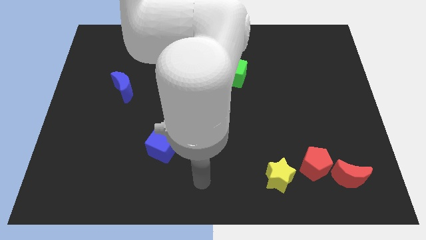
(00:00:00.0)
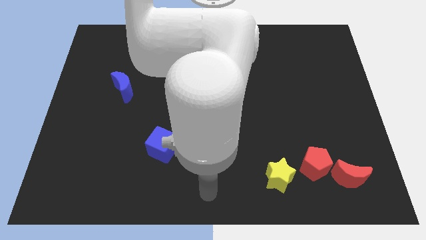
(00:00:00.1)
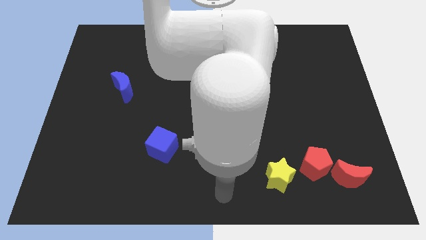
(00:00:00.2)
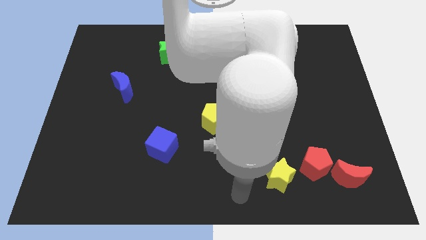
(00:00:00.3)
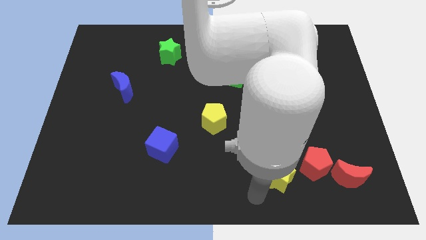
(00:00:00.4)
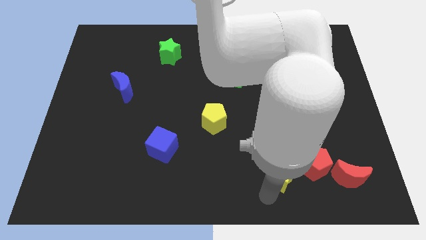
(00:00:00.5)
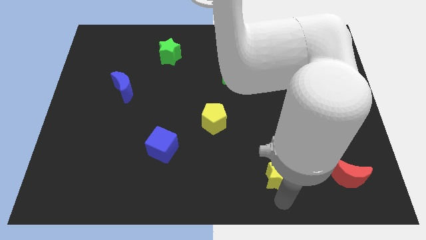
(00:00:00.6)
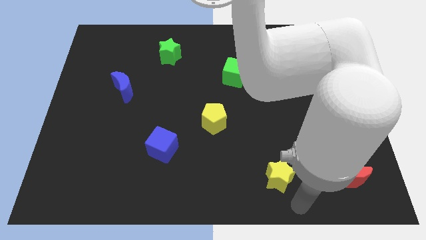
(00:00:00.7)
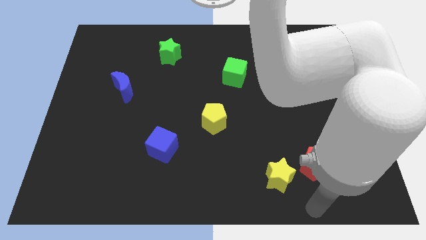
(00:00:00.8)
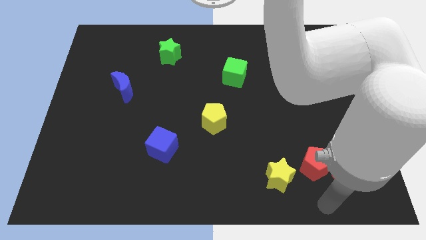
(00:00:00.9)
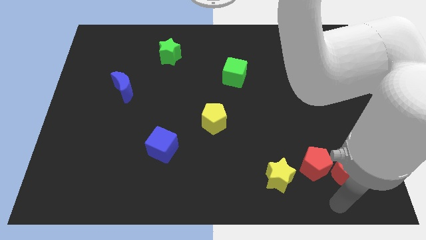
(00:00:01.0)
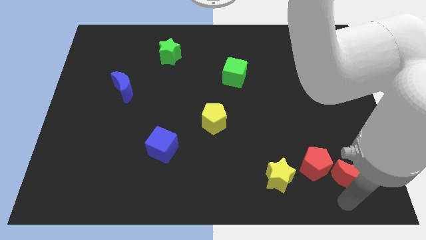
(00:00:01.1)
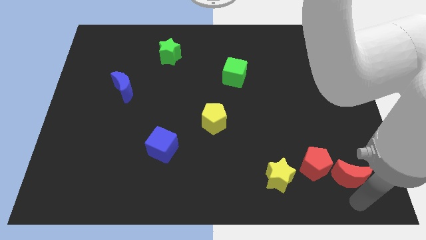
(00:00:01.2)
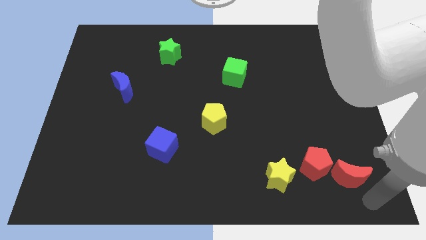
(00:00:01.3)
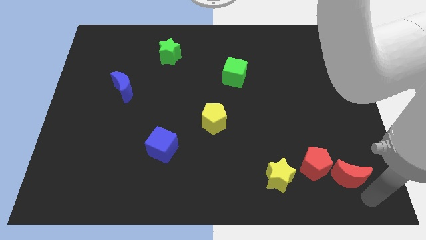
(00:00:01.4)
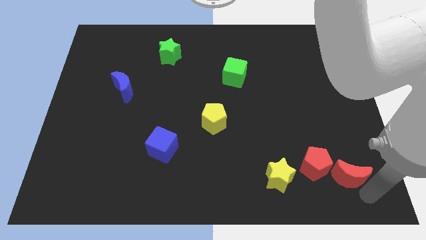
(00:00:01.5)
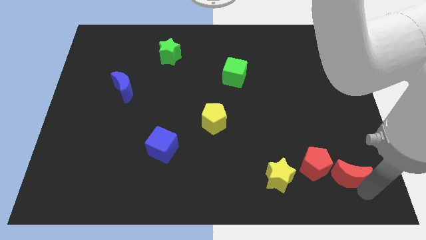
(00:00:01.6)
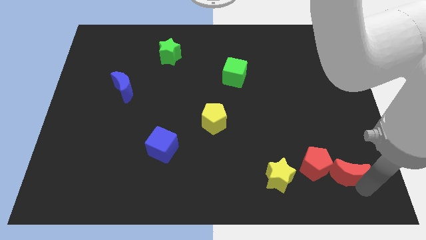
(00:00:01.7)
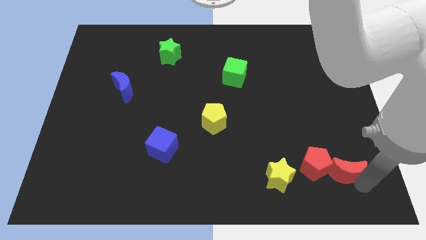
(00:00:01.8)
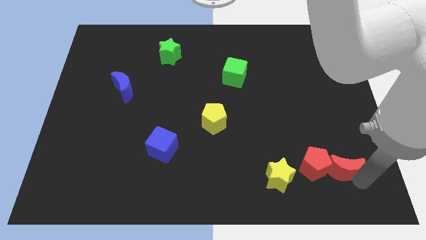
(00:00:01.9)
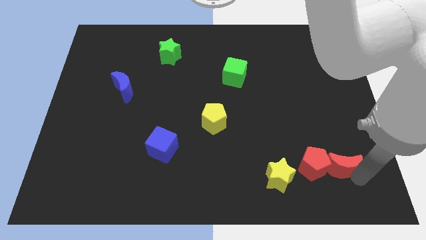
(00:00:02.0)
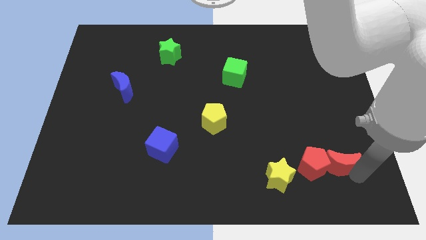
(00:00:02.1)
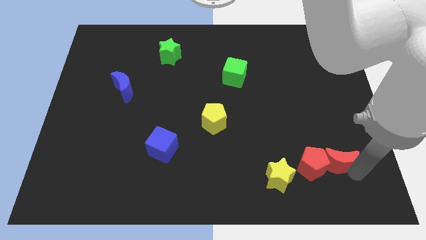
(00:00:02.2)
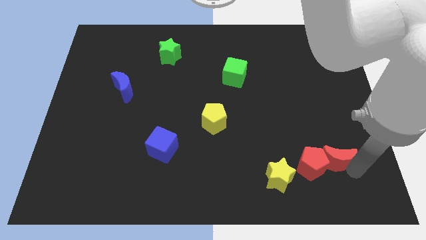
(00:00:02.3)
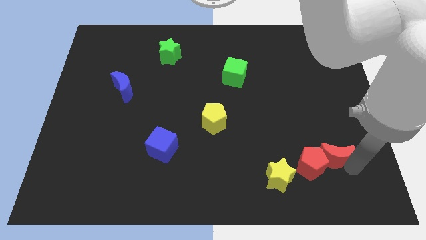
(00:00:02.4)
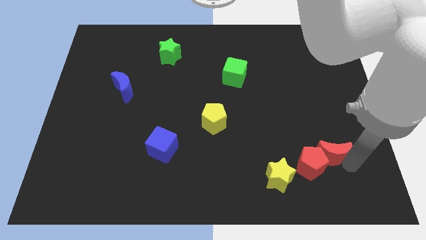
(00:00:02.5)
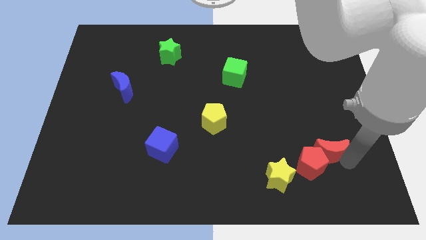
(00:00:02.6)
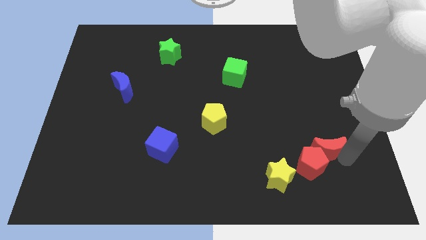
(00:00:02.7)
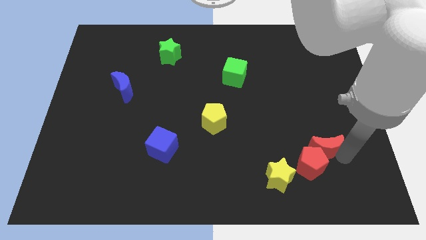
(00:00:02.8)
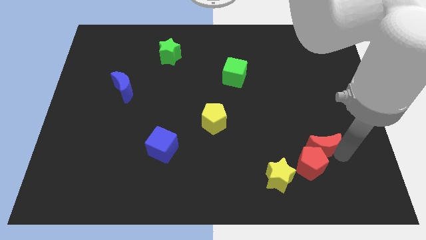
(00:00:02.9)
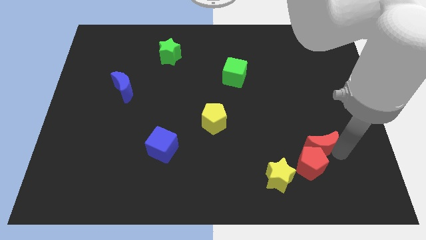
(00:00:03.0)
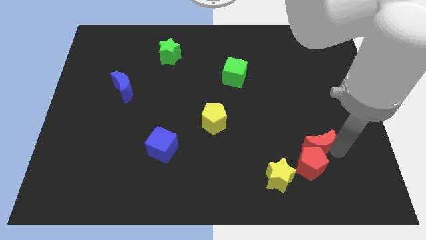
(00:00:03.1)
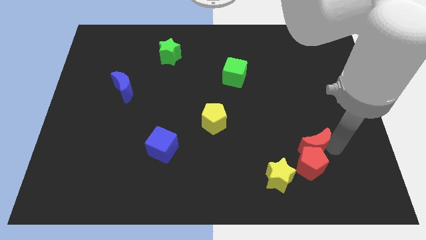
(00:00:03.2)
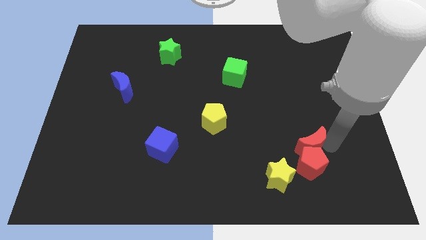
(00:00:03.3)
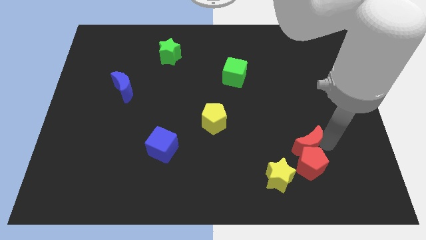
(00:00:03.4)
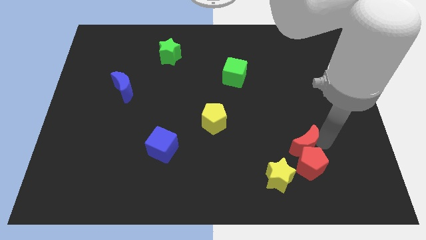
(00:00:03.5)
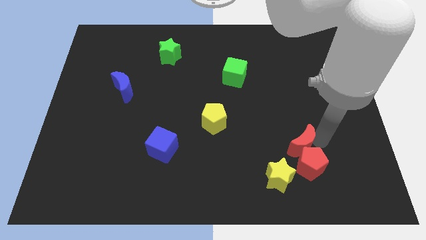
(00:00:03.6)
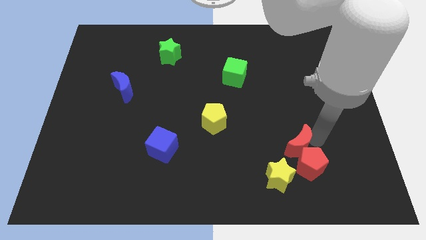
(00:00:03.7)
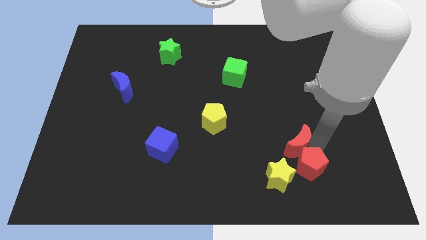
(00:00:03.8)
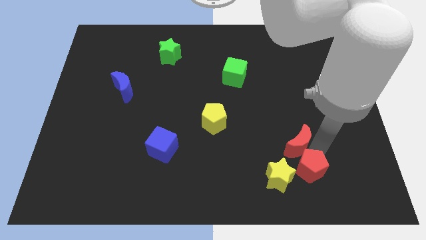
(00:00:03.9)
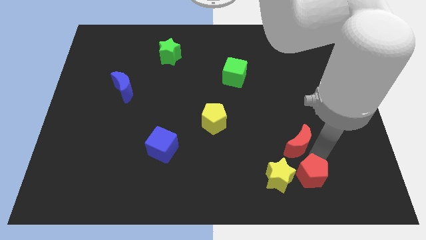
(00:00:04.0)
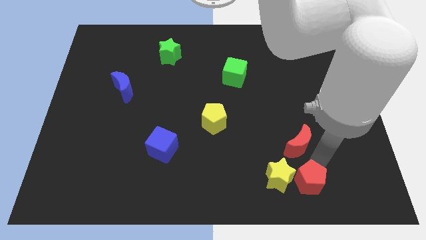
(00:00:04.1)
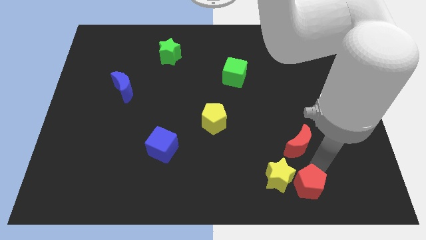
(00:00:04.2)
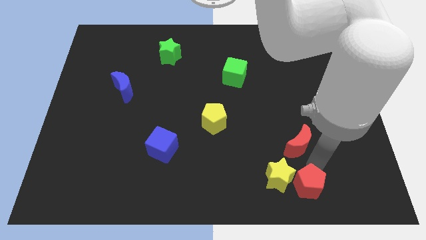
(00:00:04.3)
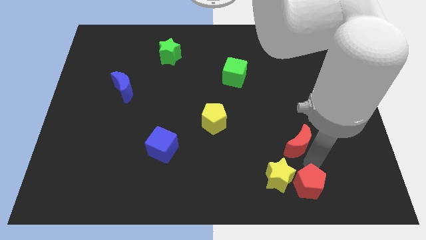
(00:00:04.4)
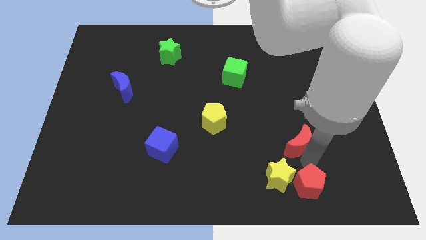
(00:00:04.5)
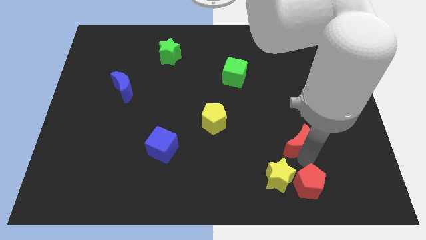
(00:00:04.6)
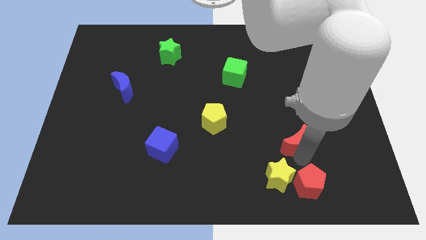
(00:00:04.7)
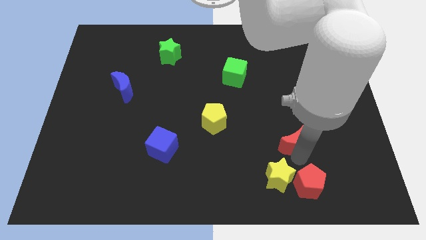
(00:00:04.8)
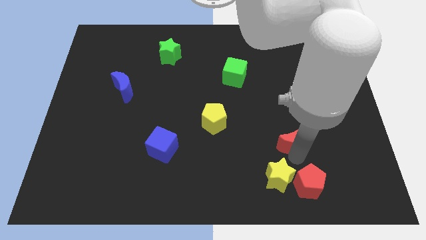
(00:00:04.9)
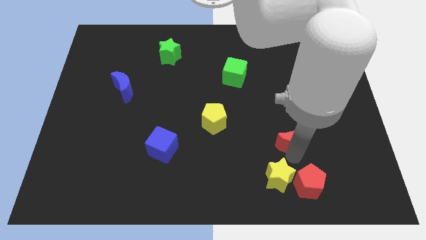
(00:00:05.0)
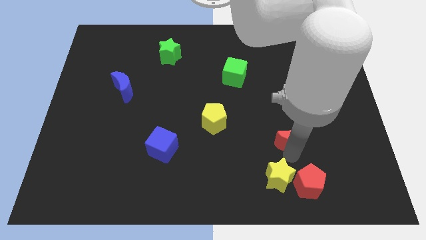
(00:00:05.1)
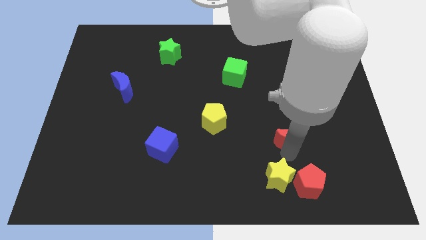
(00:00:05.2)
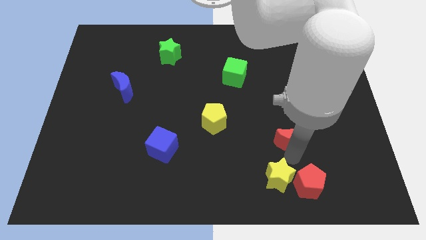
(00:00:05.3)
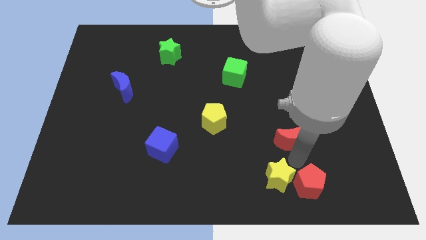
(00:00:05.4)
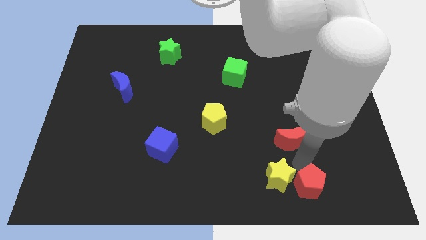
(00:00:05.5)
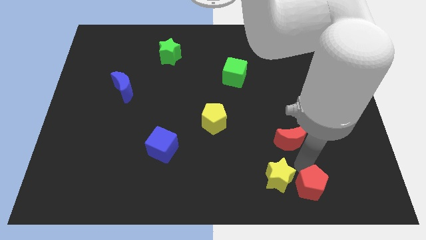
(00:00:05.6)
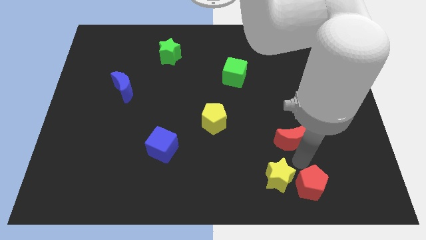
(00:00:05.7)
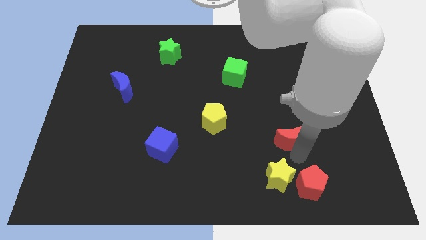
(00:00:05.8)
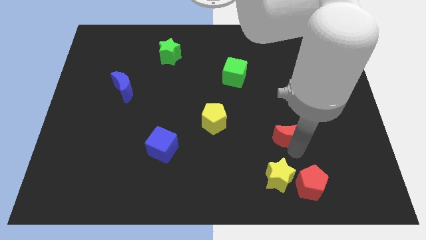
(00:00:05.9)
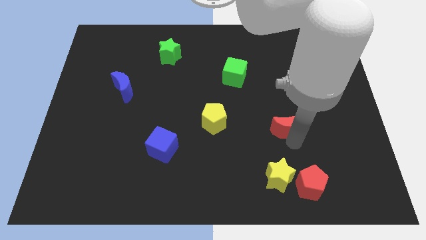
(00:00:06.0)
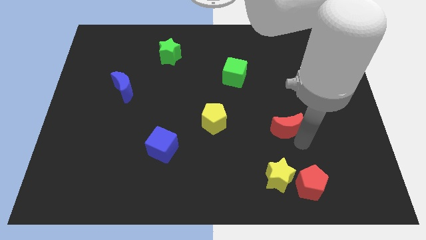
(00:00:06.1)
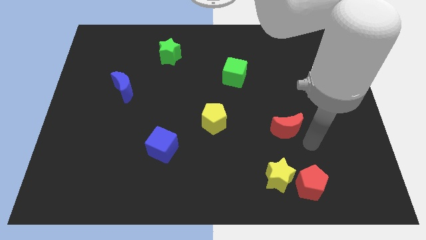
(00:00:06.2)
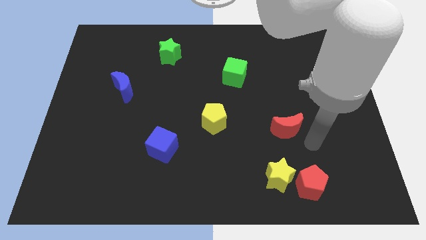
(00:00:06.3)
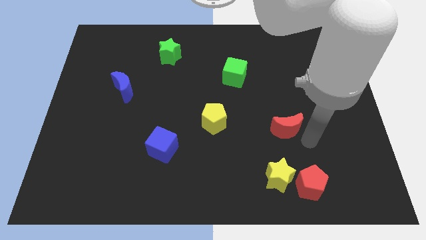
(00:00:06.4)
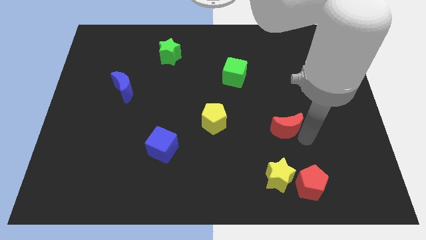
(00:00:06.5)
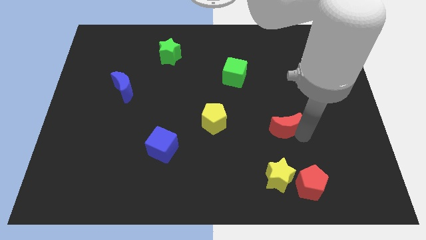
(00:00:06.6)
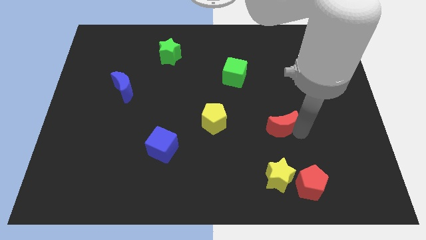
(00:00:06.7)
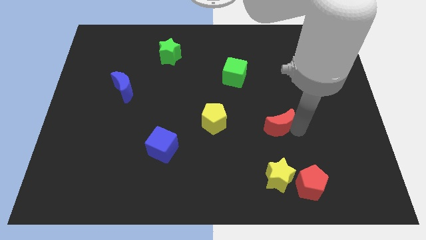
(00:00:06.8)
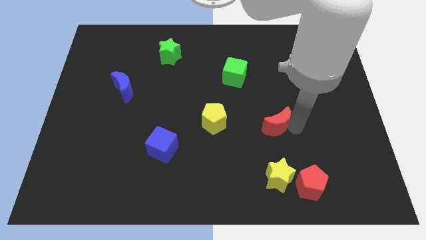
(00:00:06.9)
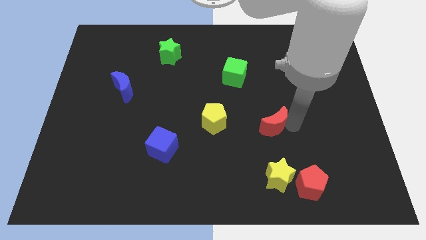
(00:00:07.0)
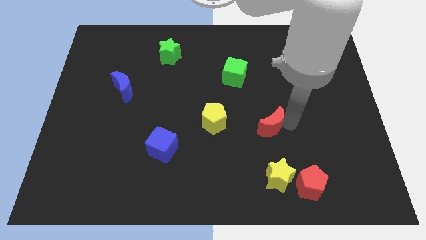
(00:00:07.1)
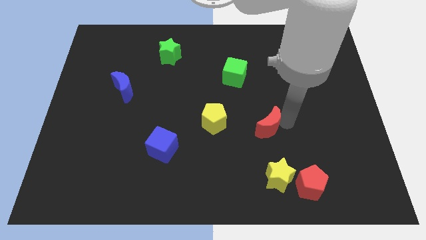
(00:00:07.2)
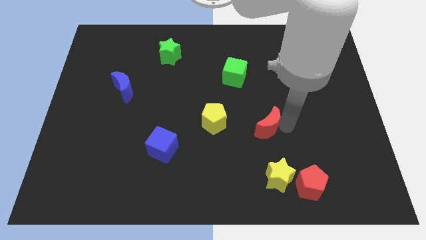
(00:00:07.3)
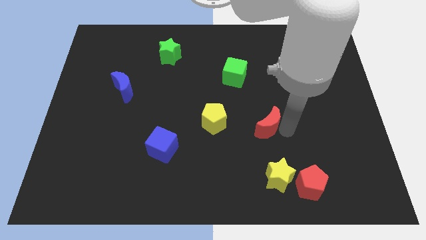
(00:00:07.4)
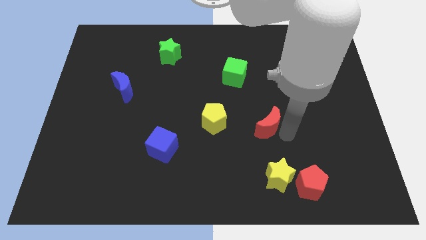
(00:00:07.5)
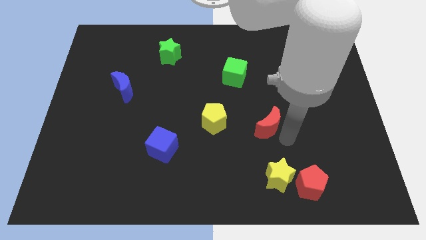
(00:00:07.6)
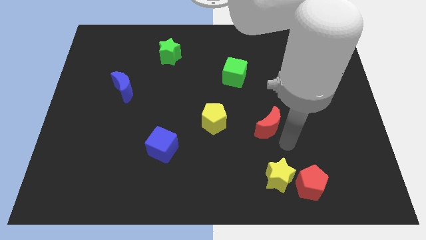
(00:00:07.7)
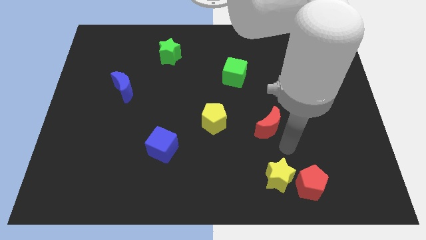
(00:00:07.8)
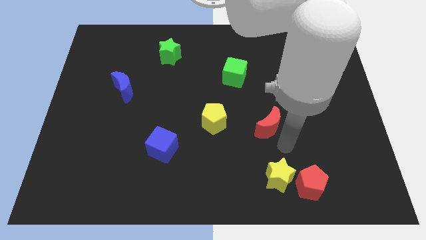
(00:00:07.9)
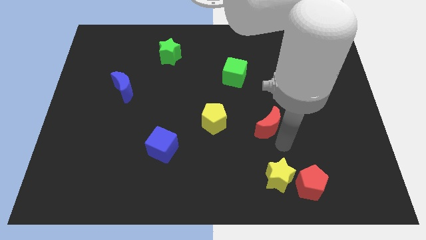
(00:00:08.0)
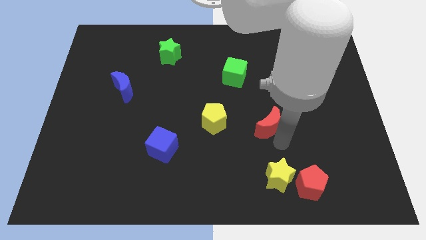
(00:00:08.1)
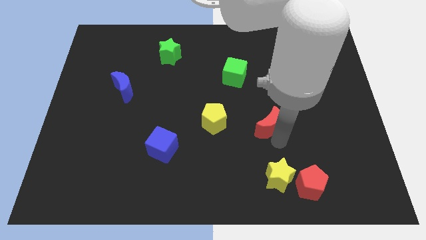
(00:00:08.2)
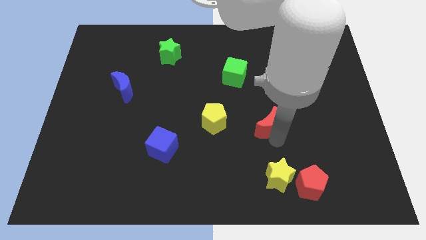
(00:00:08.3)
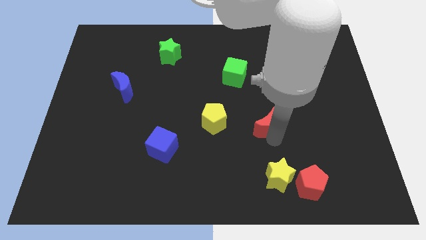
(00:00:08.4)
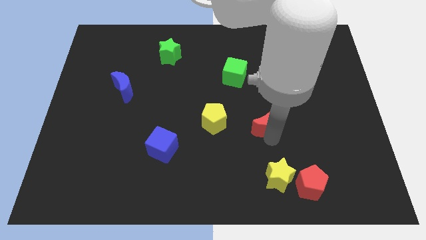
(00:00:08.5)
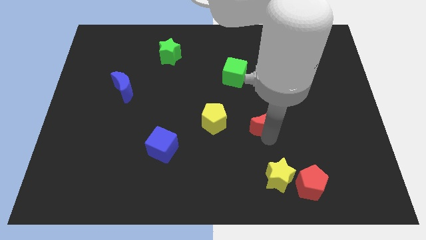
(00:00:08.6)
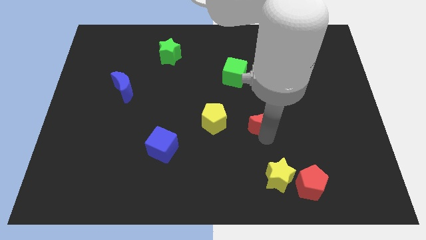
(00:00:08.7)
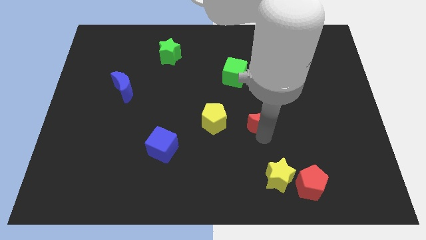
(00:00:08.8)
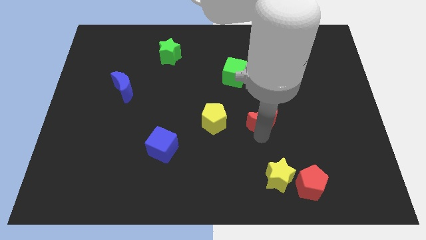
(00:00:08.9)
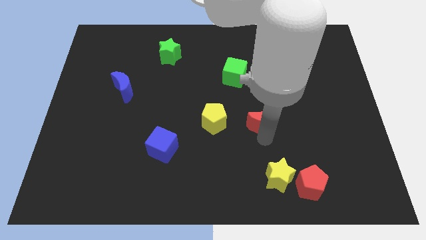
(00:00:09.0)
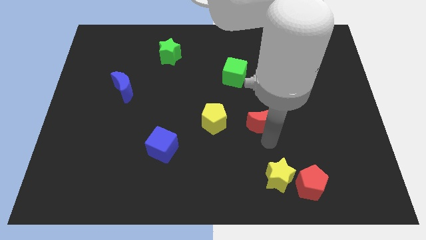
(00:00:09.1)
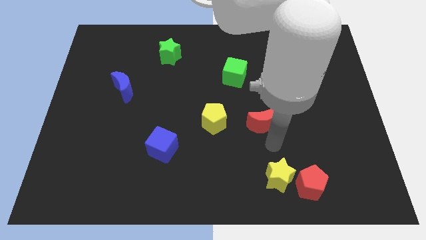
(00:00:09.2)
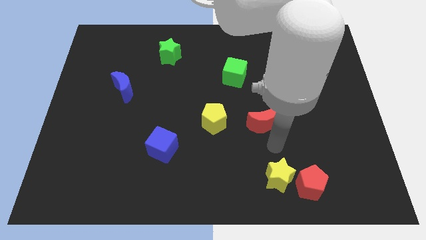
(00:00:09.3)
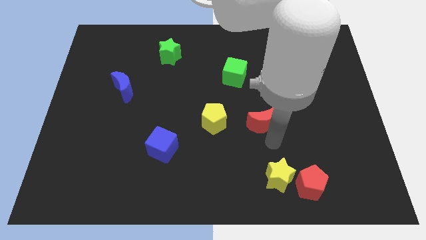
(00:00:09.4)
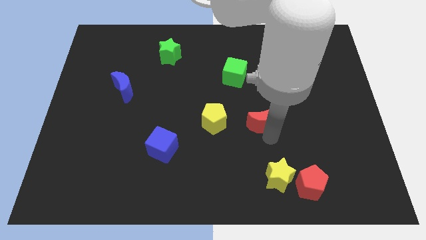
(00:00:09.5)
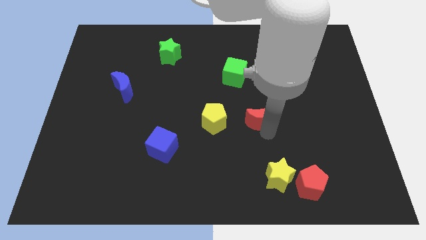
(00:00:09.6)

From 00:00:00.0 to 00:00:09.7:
move the red moon to the middle
